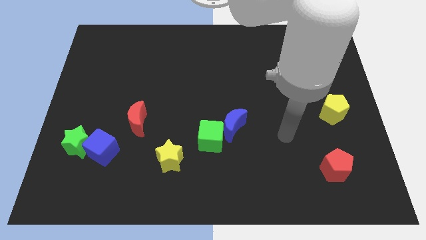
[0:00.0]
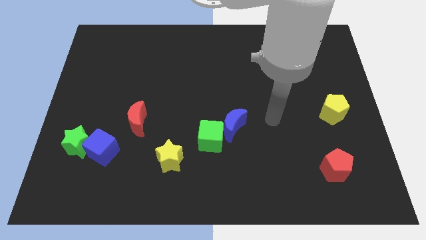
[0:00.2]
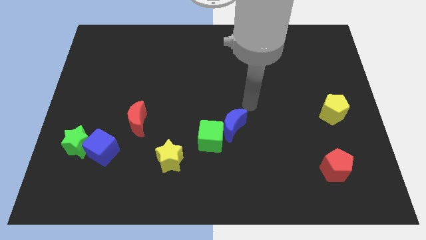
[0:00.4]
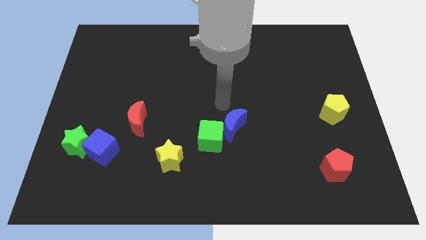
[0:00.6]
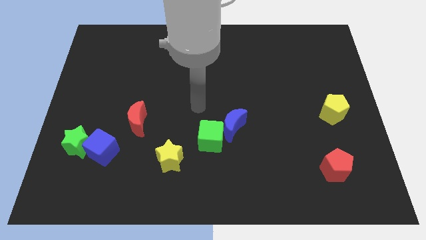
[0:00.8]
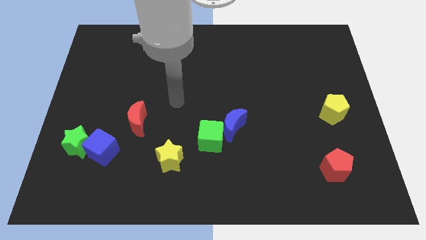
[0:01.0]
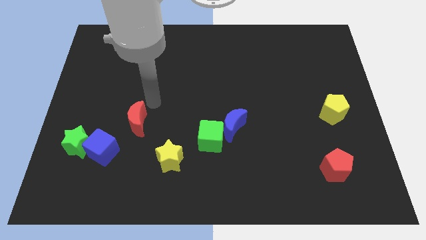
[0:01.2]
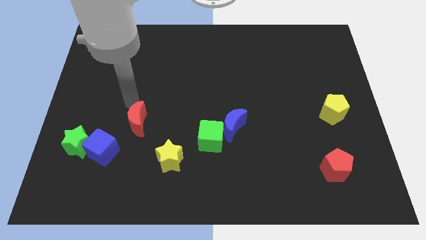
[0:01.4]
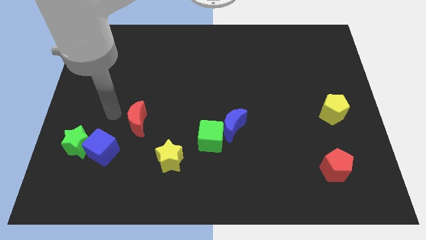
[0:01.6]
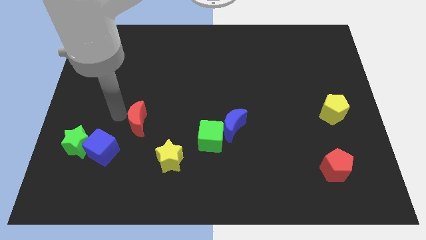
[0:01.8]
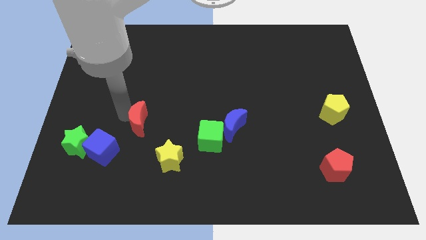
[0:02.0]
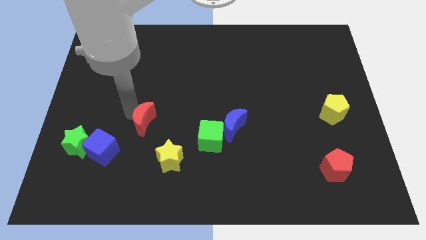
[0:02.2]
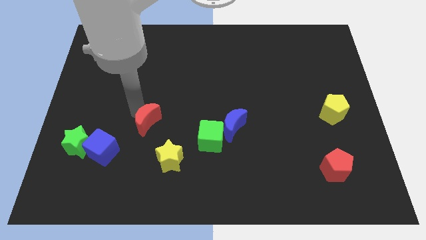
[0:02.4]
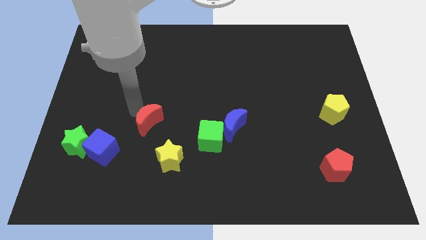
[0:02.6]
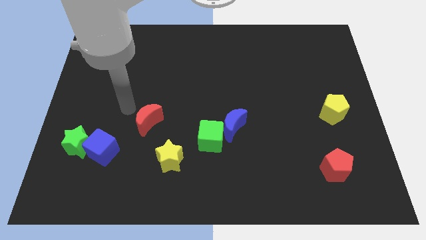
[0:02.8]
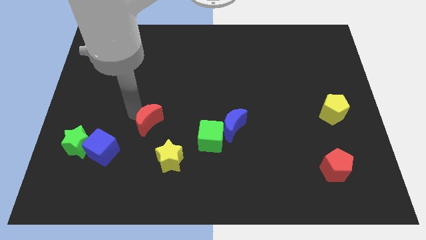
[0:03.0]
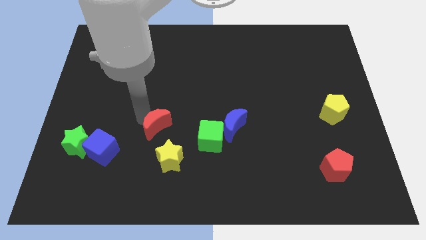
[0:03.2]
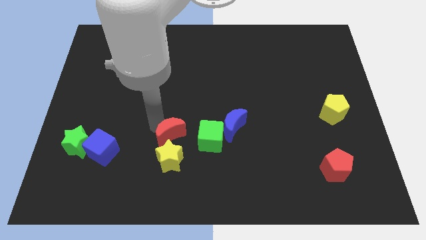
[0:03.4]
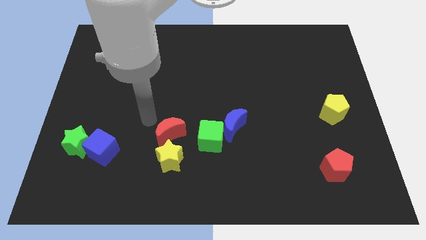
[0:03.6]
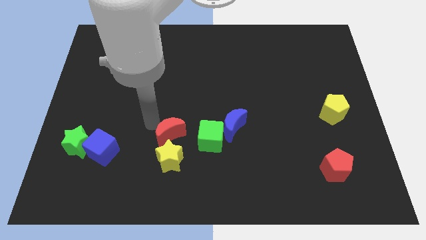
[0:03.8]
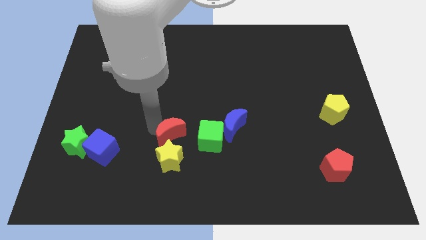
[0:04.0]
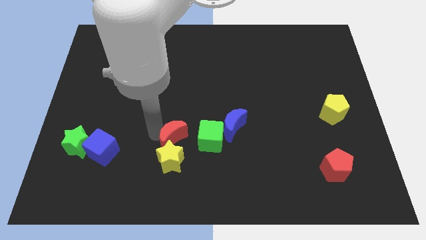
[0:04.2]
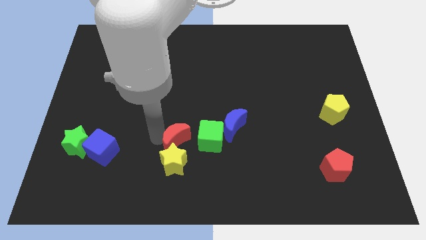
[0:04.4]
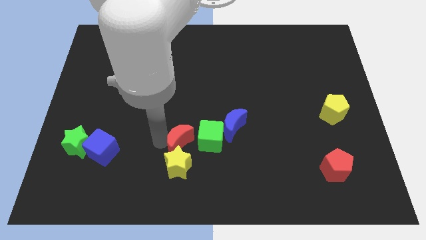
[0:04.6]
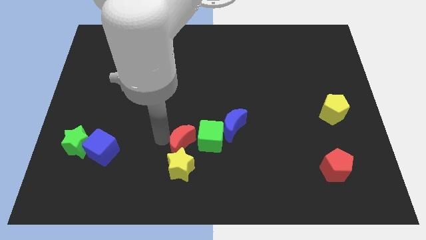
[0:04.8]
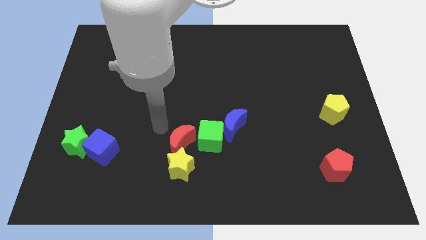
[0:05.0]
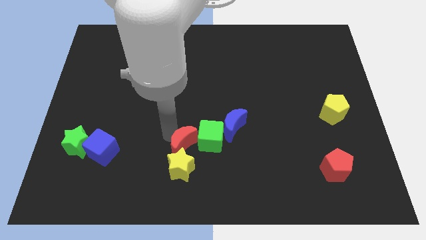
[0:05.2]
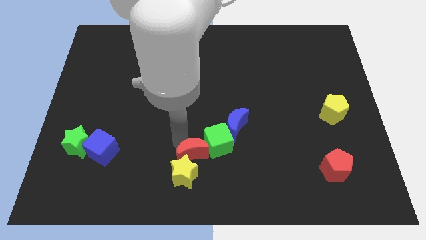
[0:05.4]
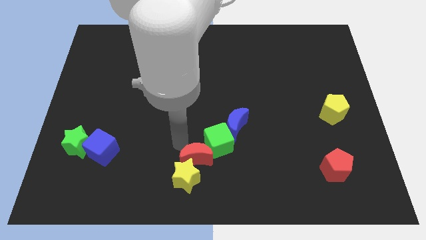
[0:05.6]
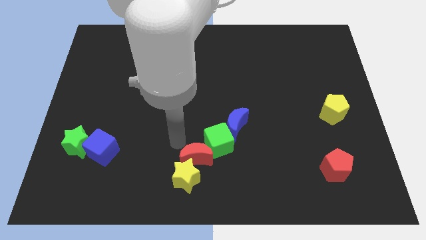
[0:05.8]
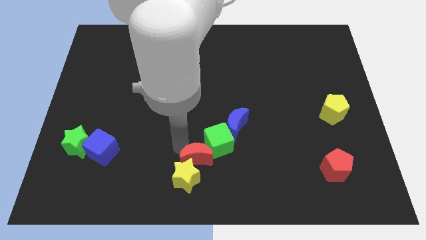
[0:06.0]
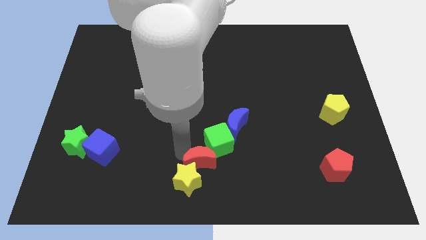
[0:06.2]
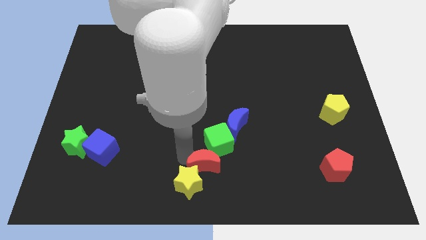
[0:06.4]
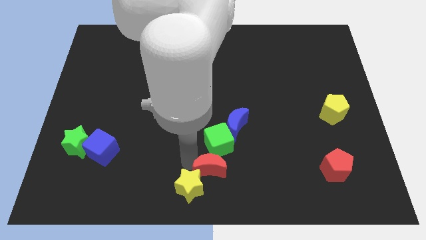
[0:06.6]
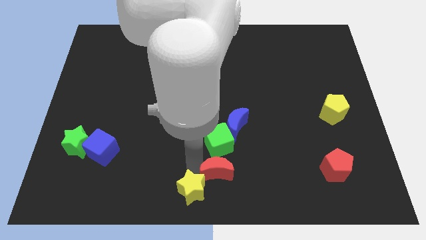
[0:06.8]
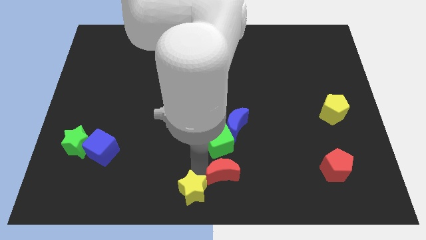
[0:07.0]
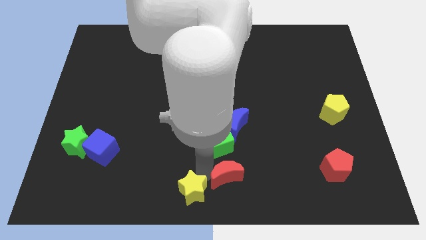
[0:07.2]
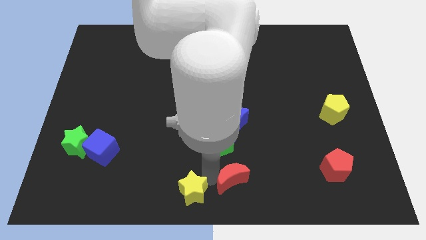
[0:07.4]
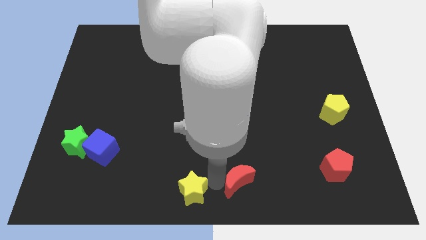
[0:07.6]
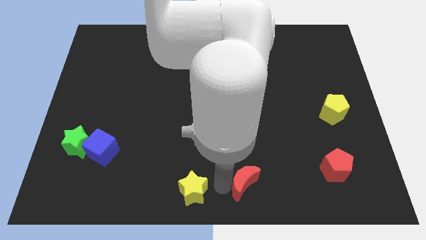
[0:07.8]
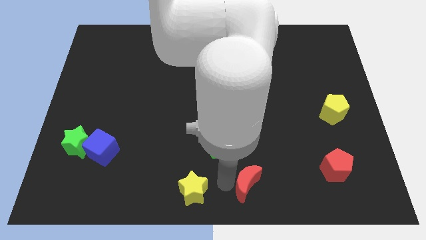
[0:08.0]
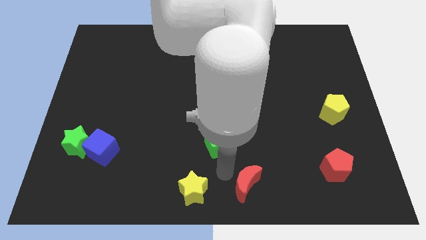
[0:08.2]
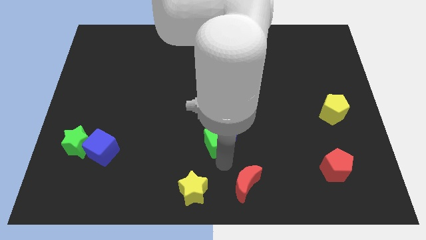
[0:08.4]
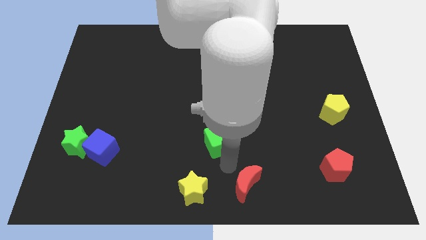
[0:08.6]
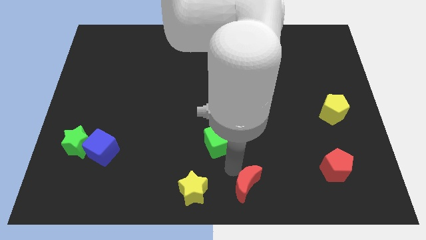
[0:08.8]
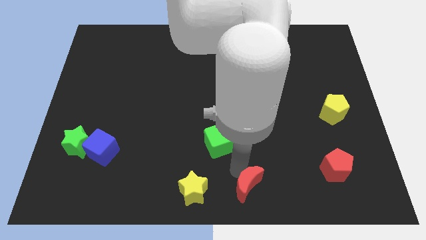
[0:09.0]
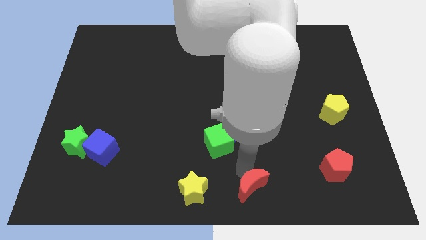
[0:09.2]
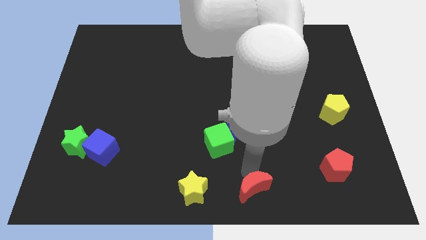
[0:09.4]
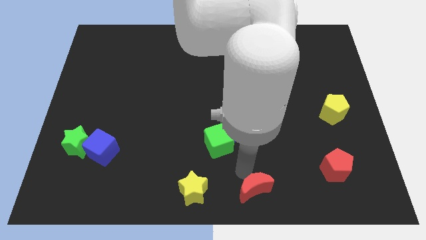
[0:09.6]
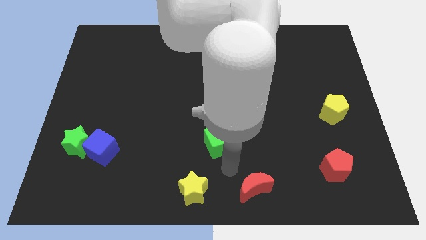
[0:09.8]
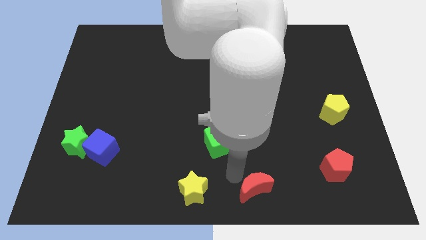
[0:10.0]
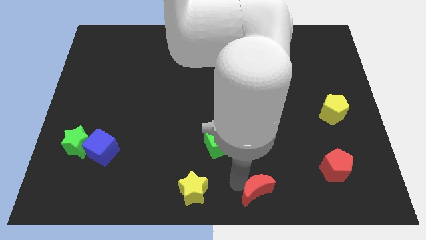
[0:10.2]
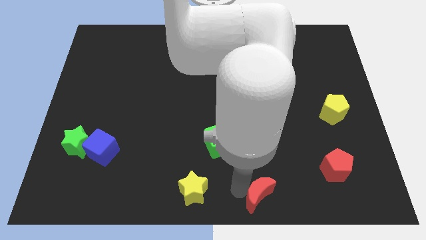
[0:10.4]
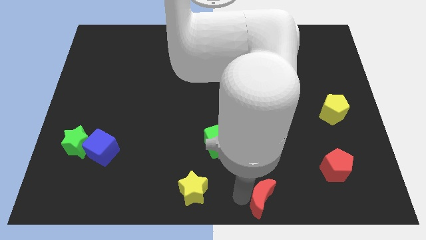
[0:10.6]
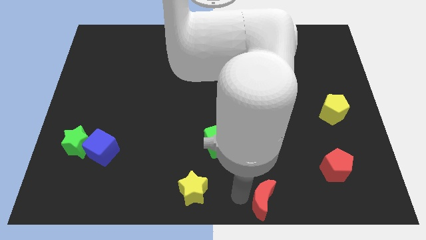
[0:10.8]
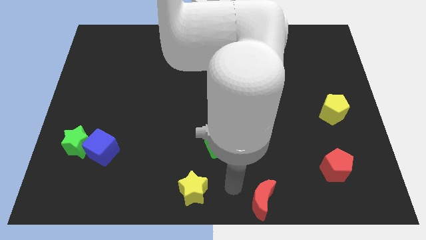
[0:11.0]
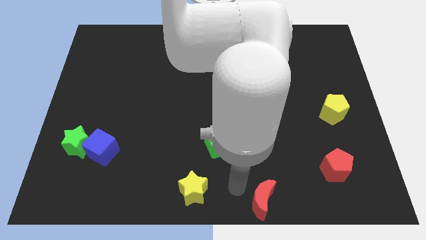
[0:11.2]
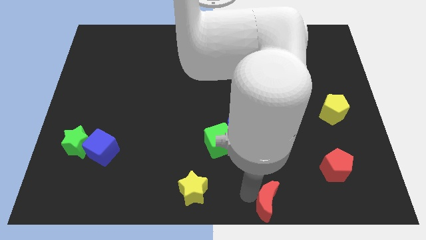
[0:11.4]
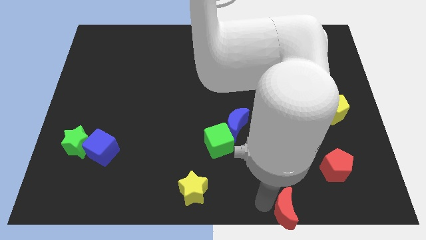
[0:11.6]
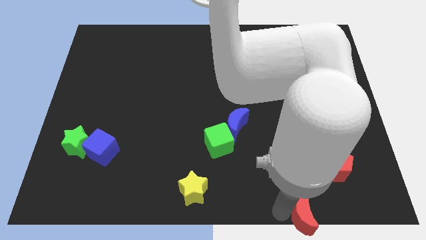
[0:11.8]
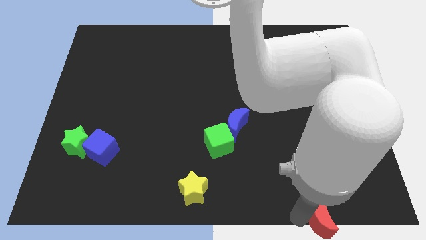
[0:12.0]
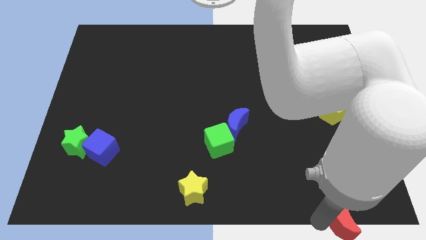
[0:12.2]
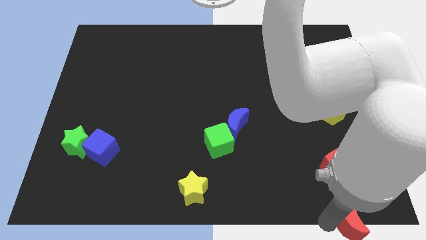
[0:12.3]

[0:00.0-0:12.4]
slide the red moon to the bottom right
